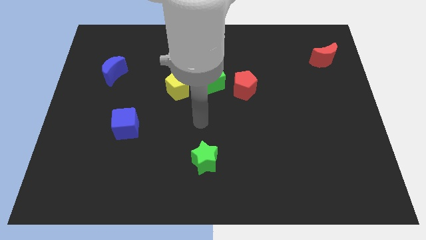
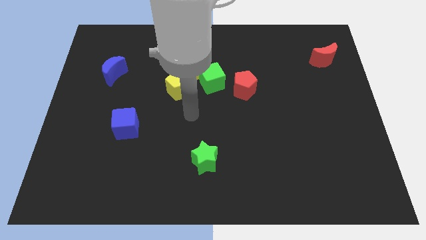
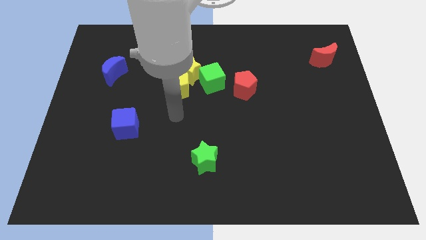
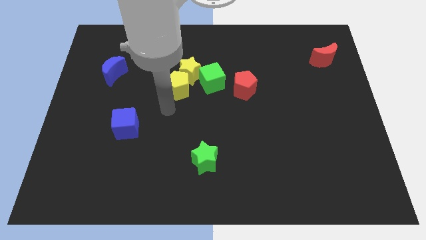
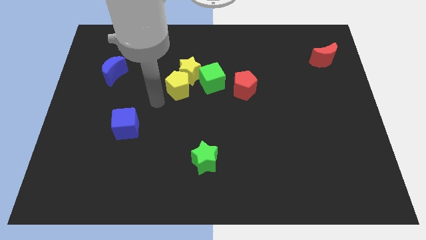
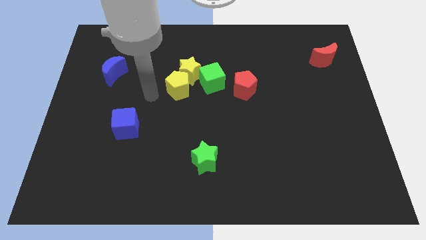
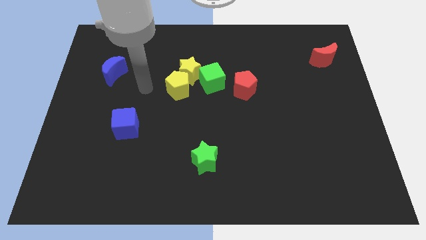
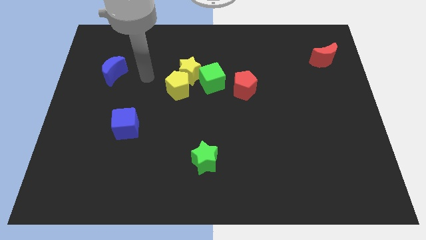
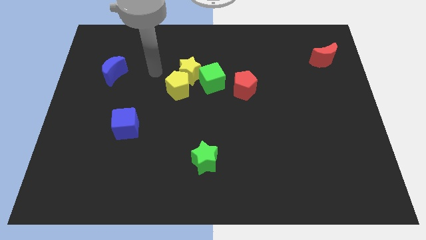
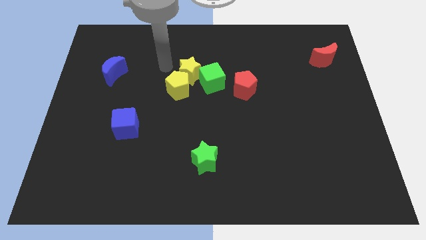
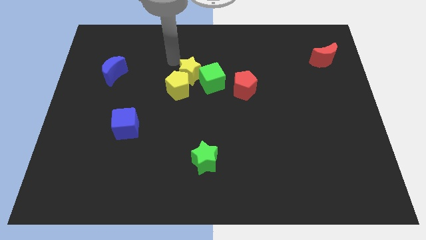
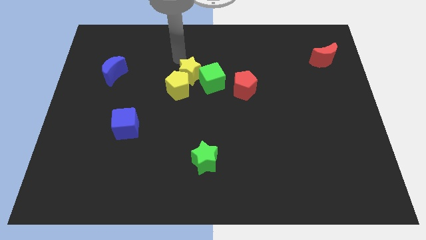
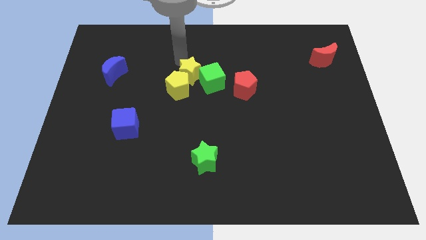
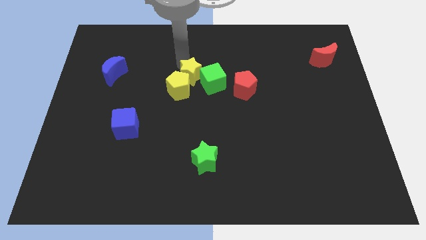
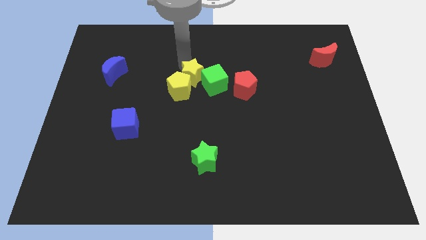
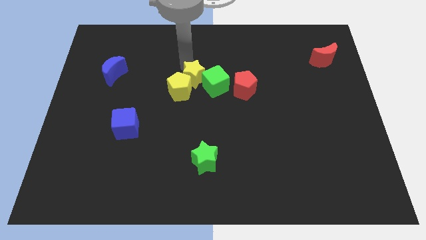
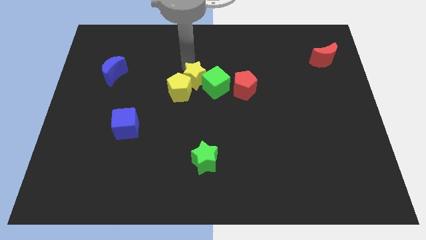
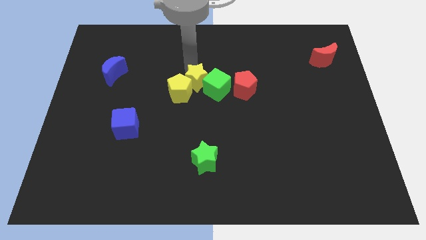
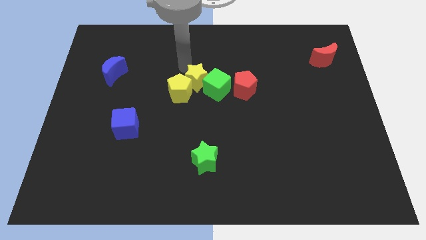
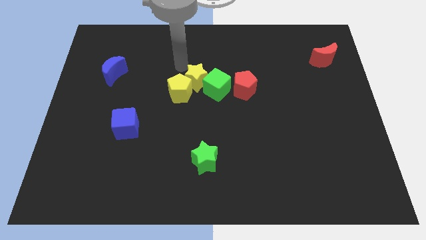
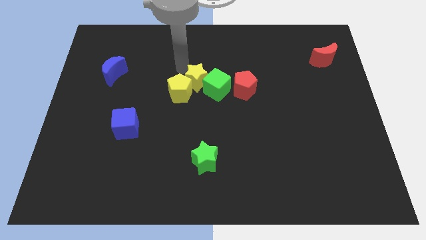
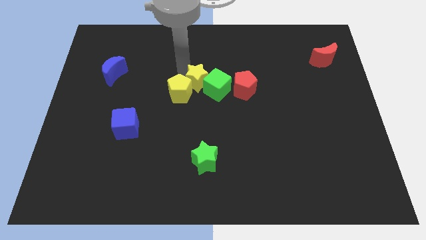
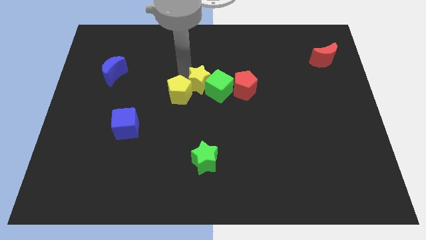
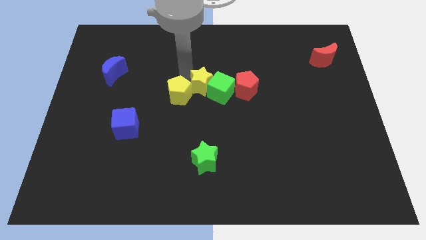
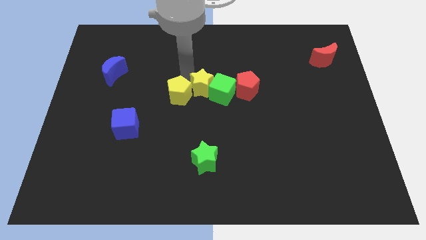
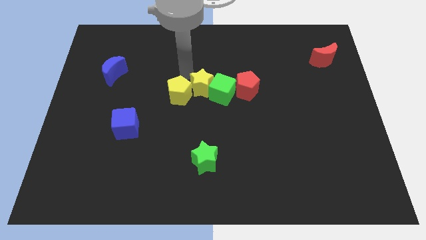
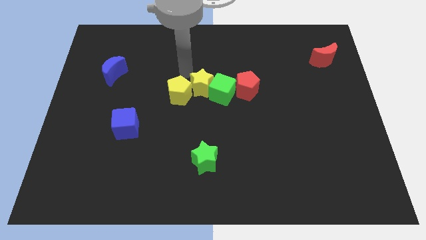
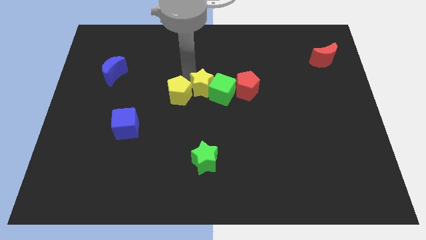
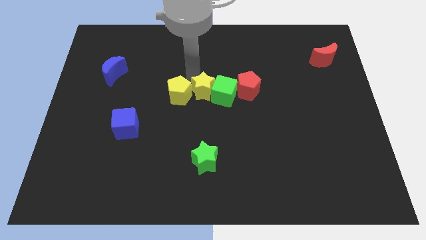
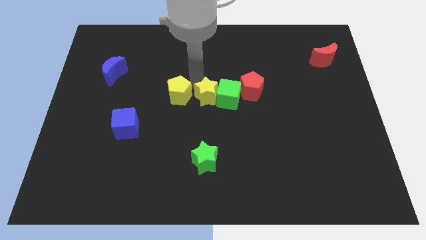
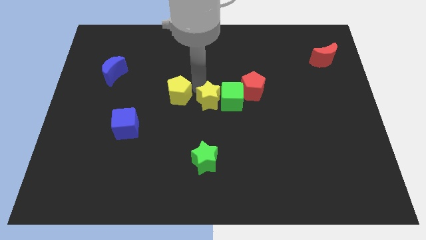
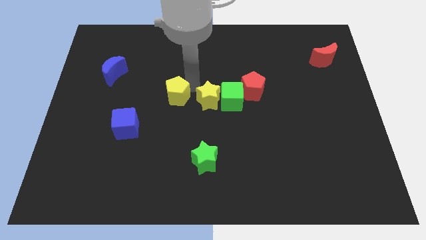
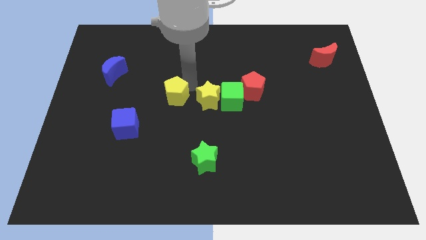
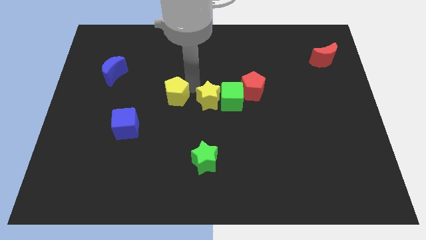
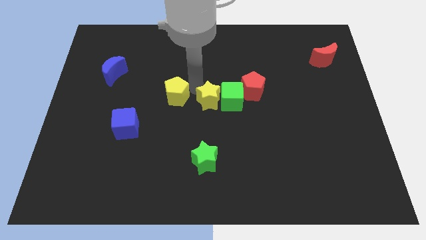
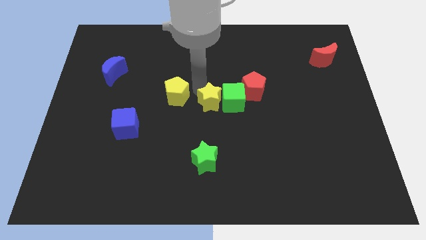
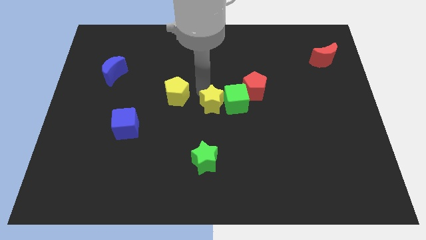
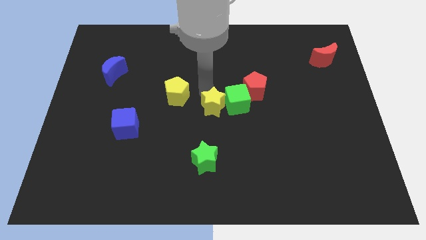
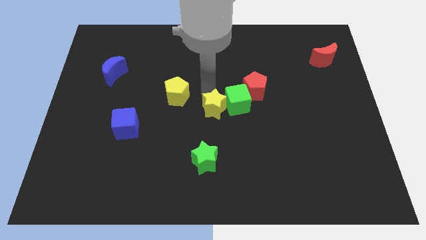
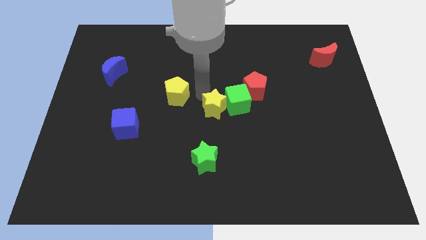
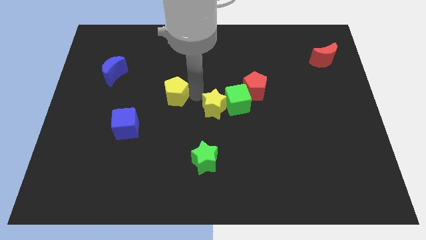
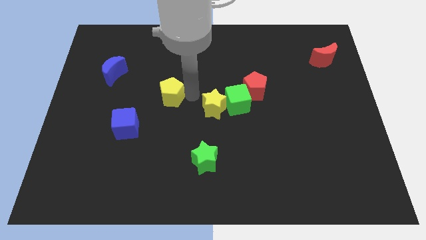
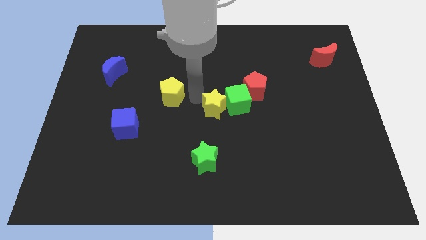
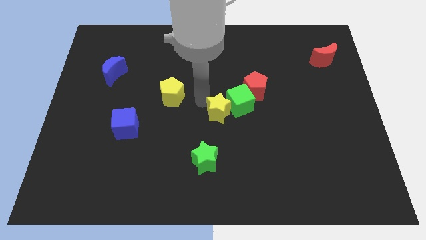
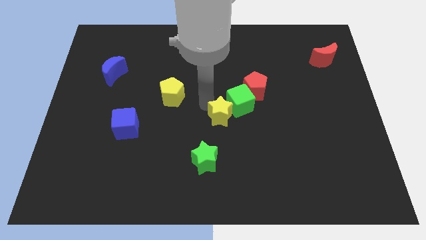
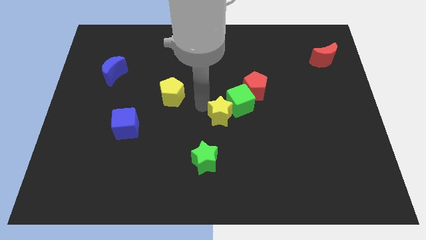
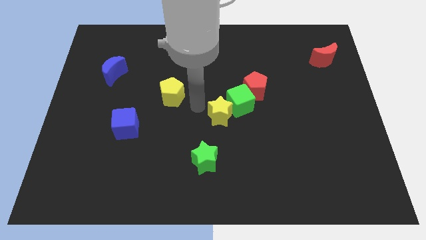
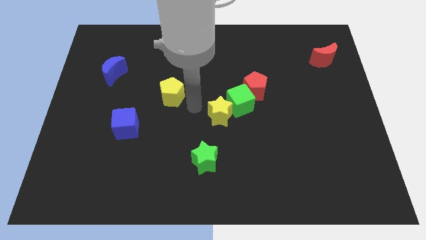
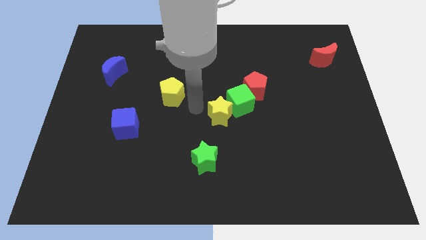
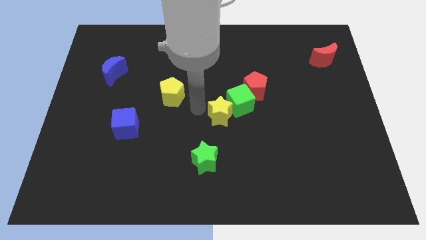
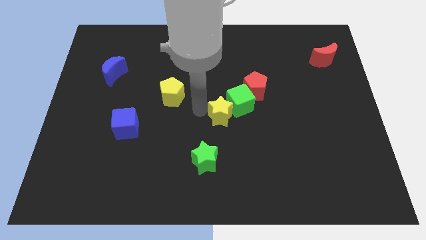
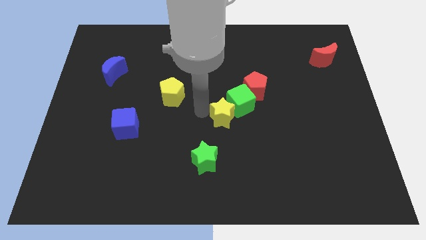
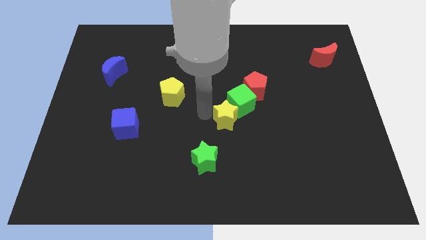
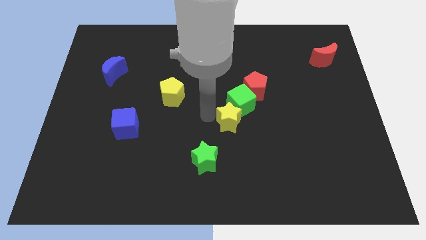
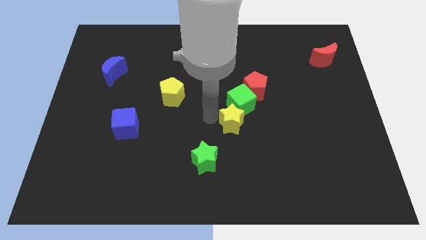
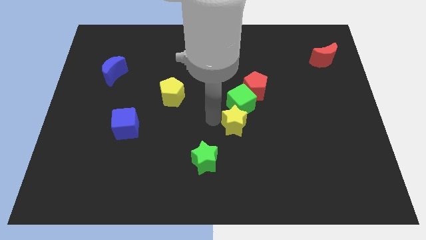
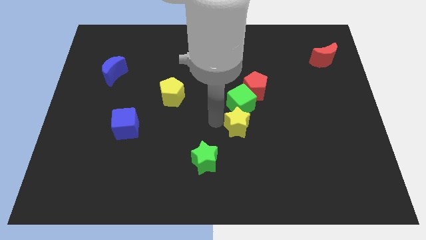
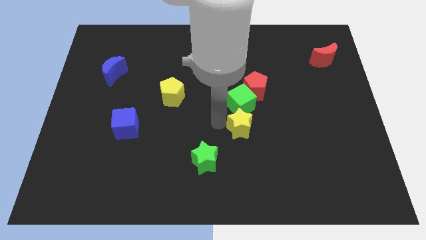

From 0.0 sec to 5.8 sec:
move the yellow star down and to the right

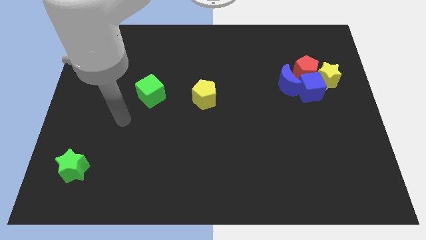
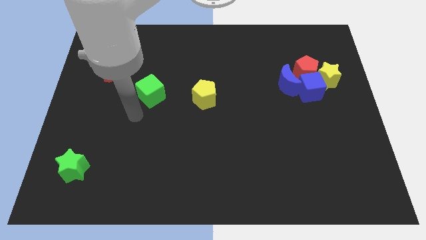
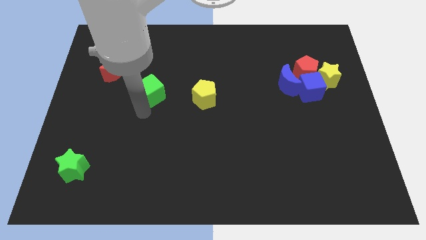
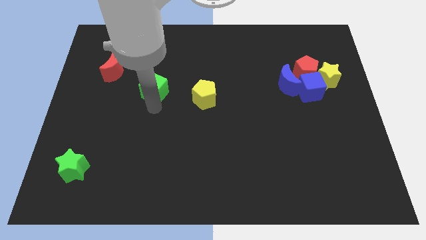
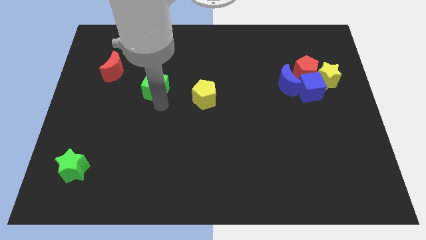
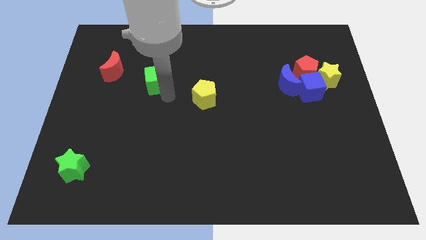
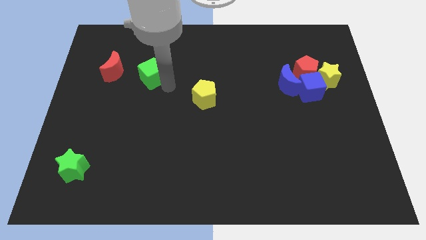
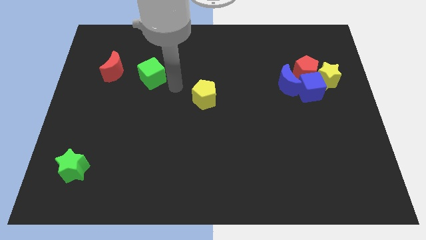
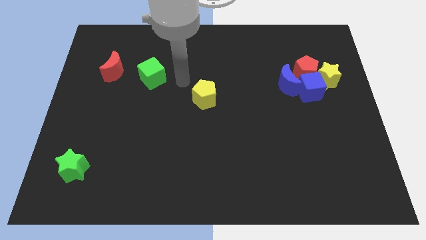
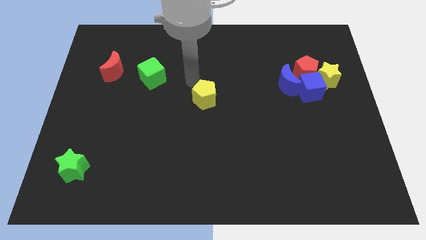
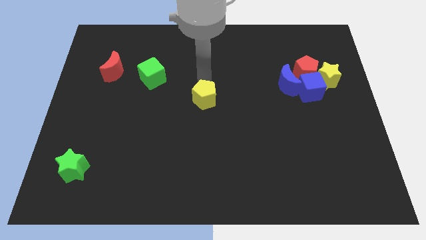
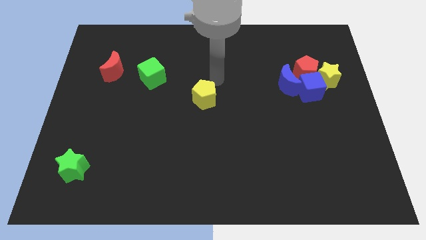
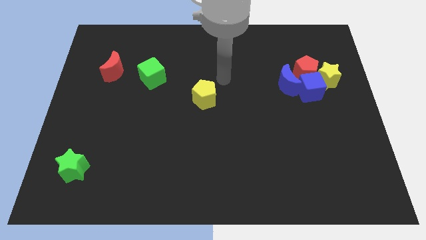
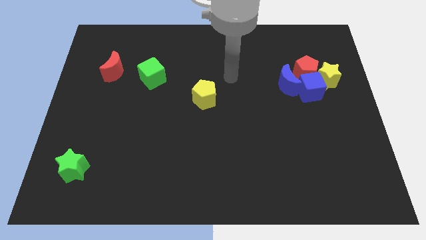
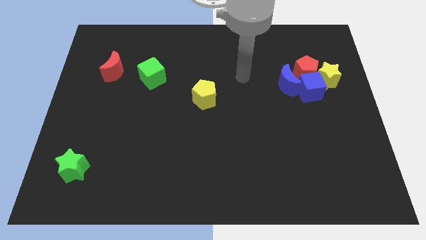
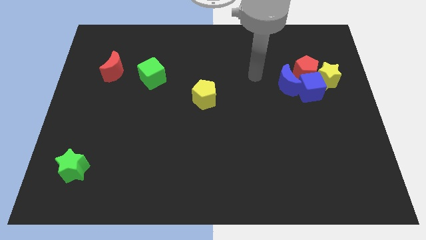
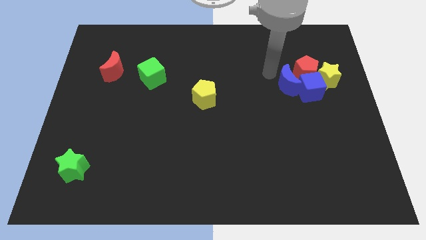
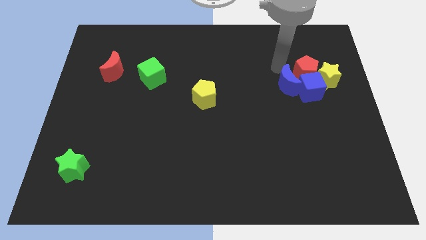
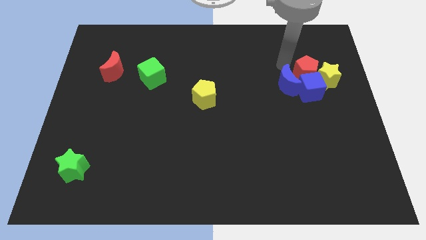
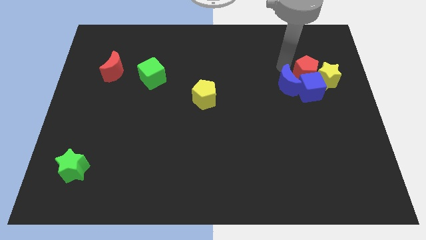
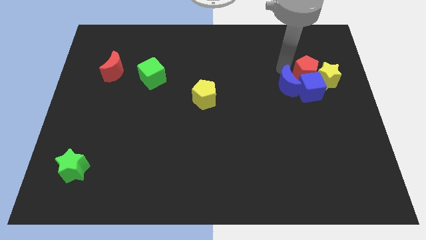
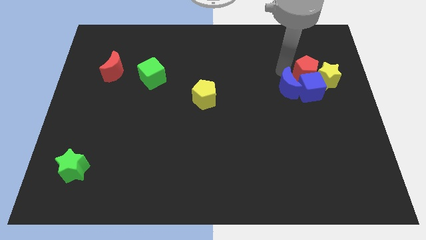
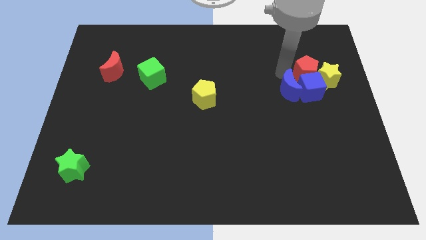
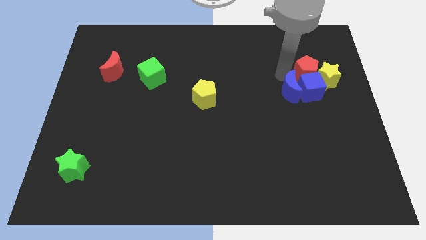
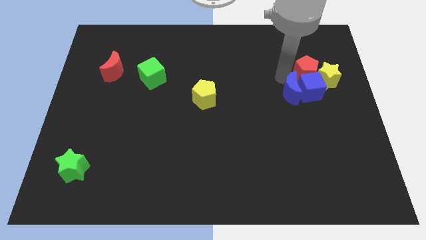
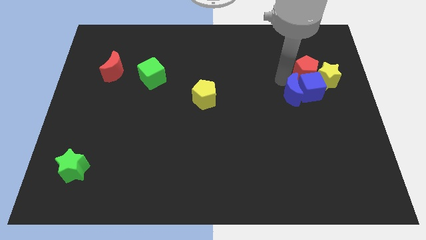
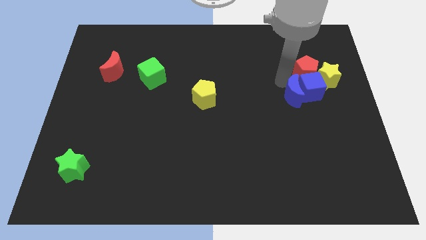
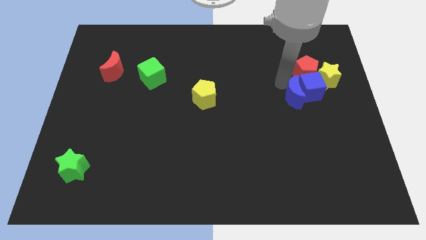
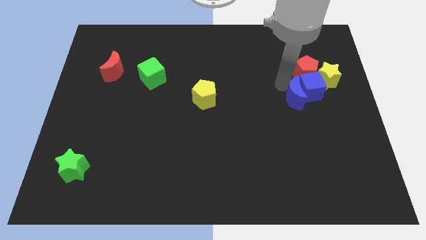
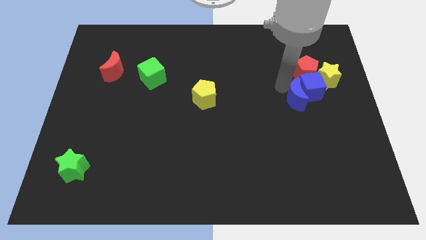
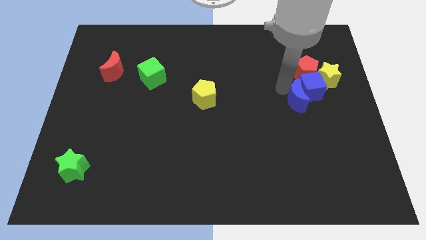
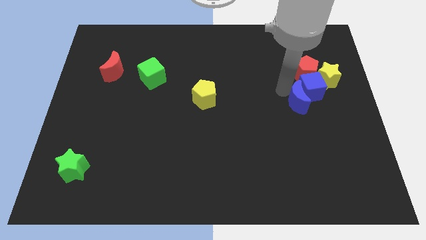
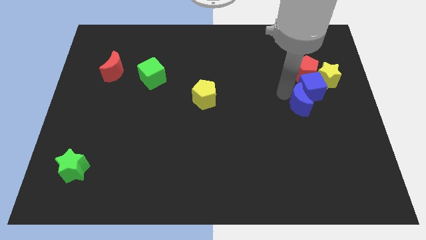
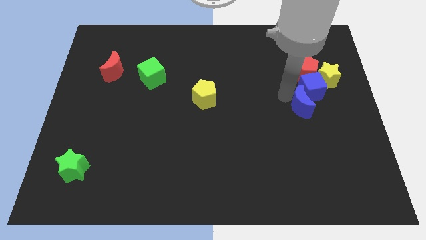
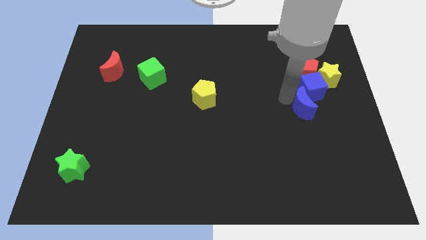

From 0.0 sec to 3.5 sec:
slightly move the blue moon down
